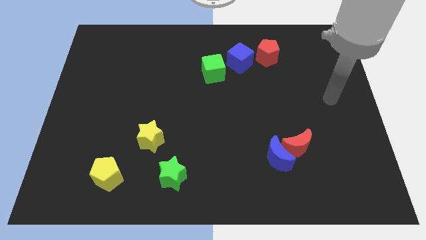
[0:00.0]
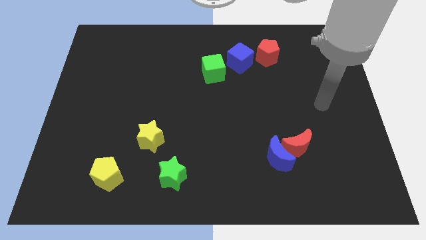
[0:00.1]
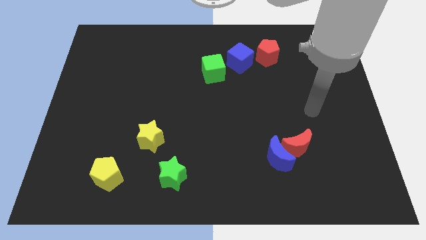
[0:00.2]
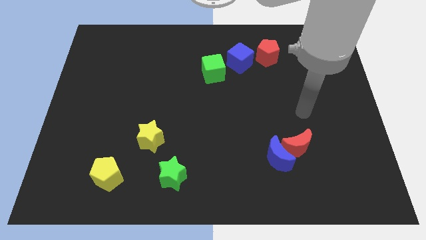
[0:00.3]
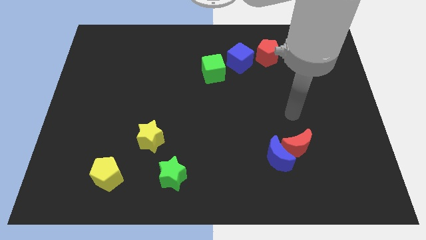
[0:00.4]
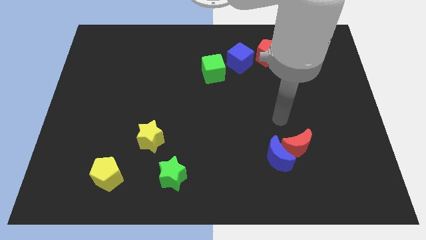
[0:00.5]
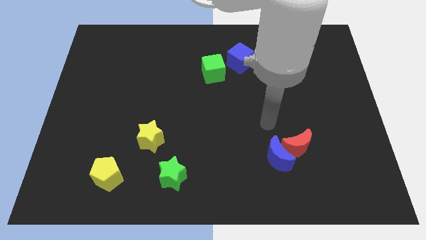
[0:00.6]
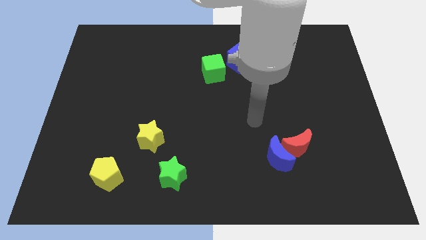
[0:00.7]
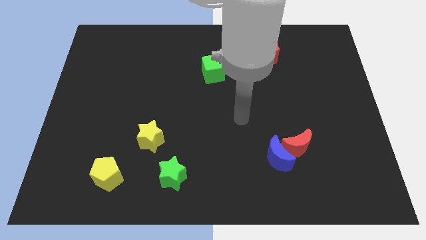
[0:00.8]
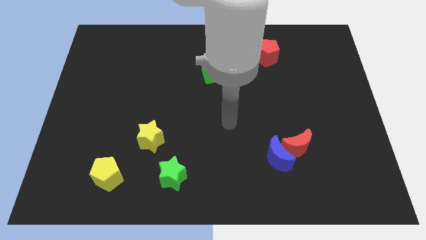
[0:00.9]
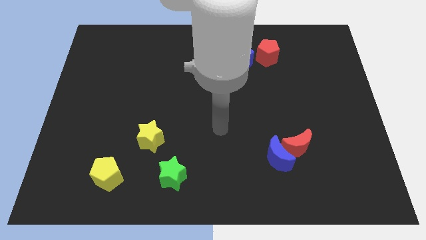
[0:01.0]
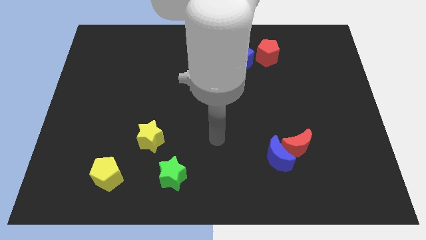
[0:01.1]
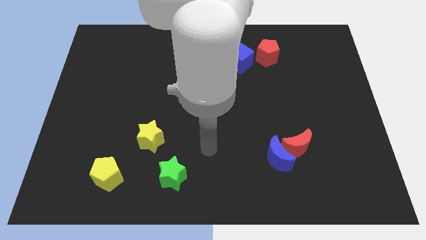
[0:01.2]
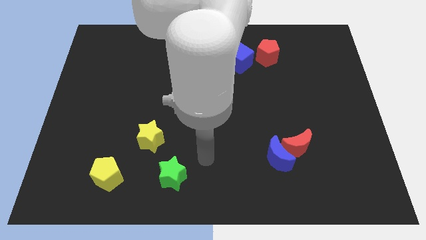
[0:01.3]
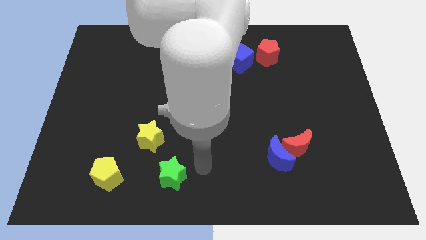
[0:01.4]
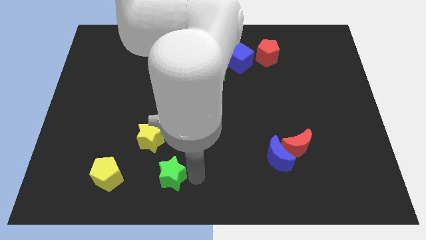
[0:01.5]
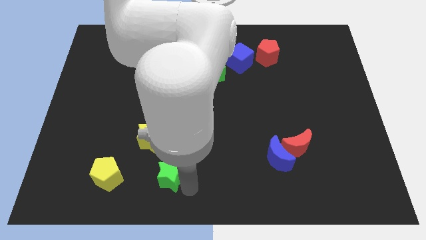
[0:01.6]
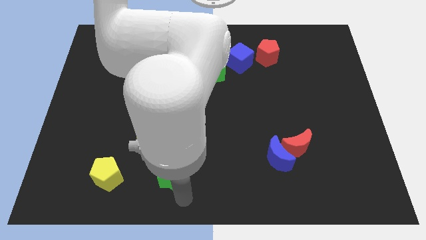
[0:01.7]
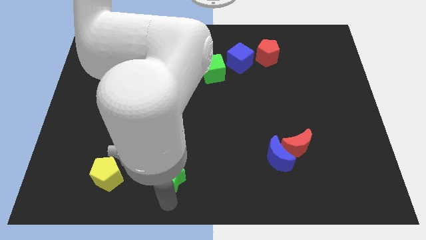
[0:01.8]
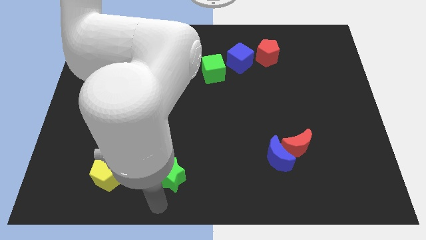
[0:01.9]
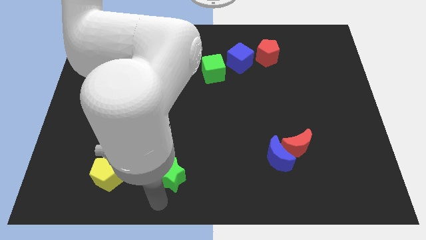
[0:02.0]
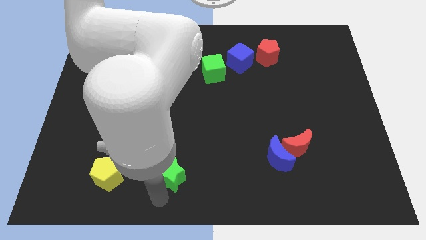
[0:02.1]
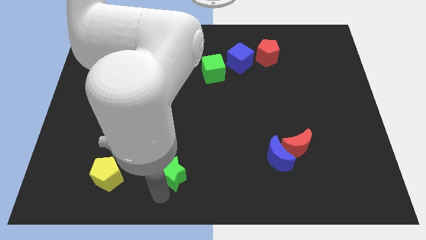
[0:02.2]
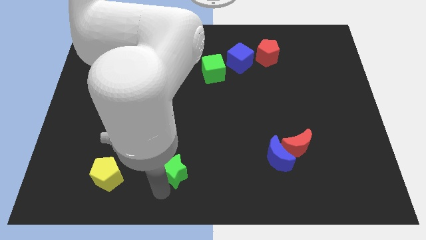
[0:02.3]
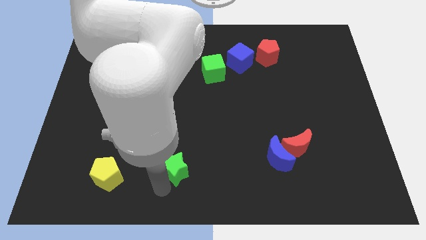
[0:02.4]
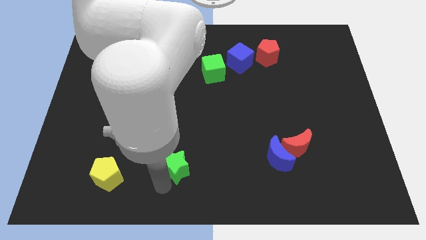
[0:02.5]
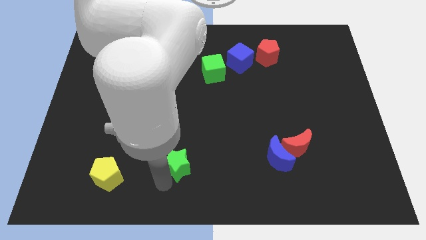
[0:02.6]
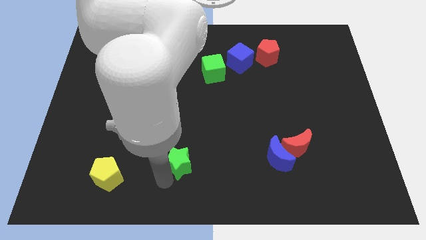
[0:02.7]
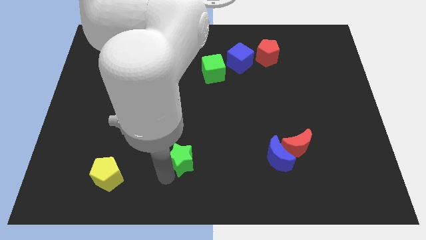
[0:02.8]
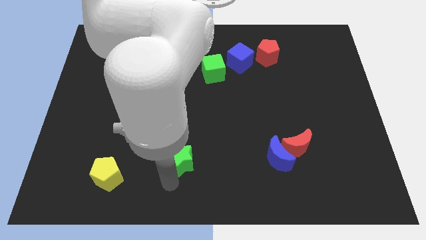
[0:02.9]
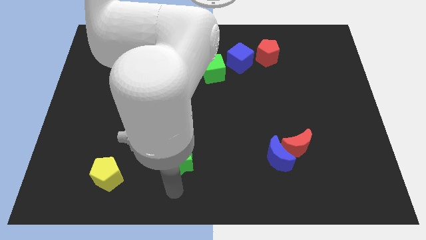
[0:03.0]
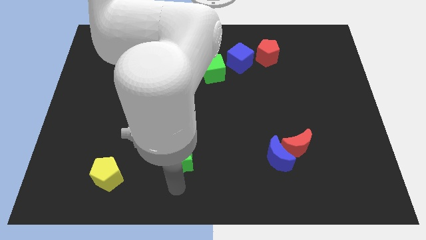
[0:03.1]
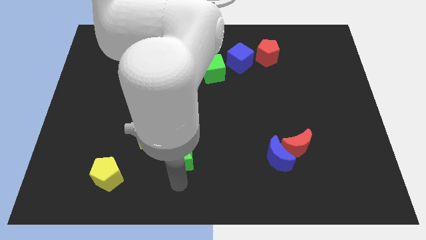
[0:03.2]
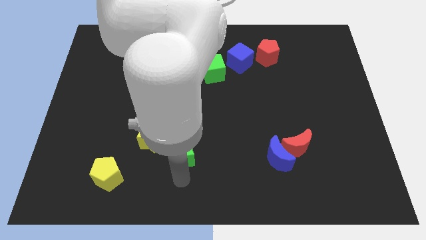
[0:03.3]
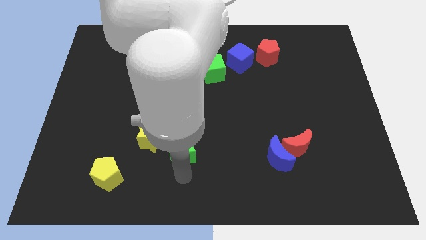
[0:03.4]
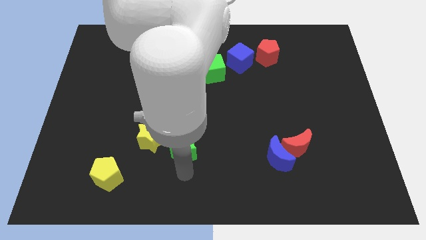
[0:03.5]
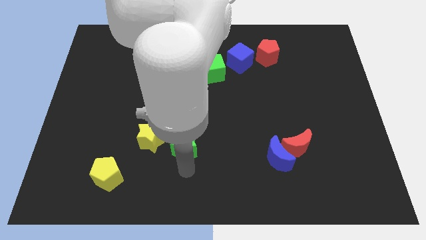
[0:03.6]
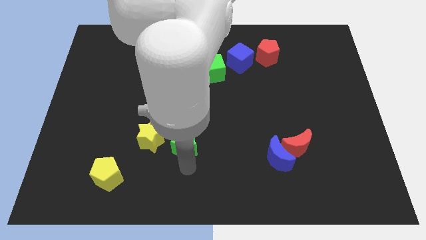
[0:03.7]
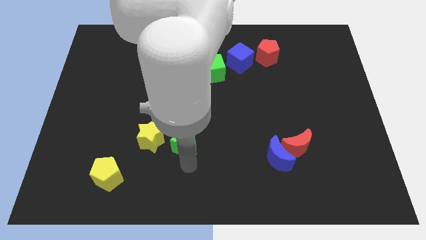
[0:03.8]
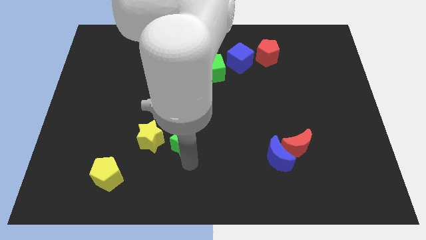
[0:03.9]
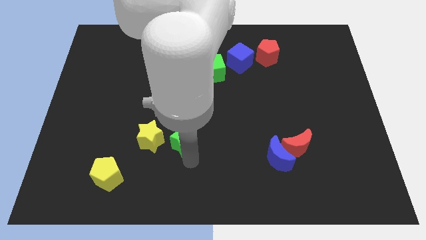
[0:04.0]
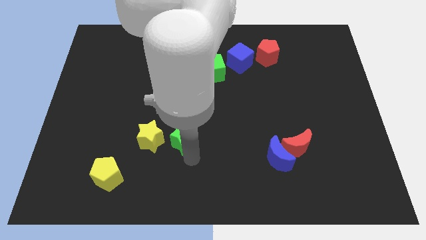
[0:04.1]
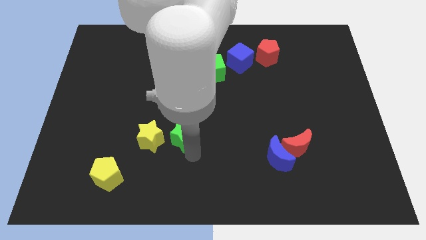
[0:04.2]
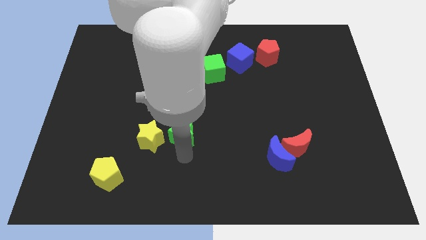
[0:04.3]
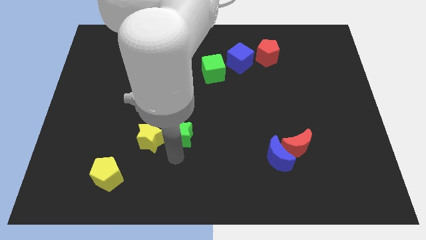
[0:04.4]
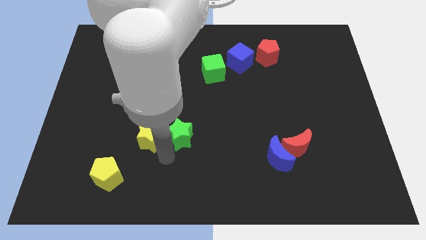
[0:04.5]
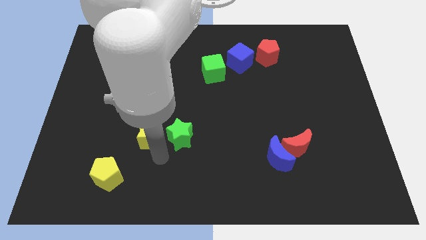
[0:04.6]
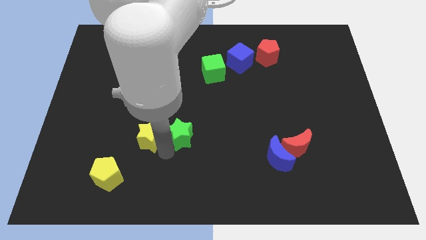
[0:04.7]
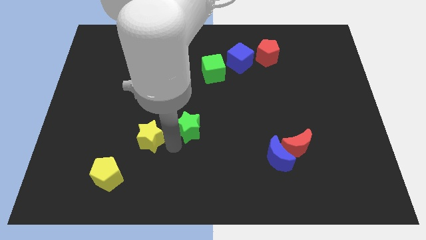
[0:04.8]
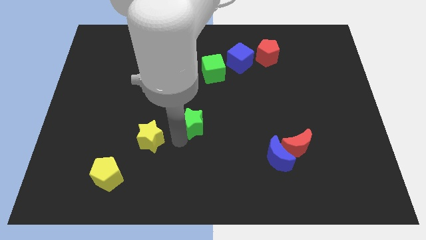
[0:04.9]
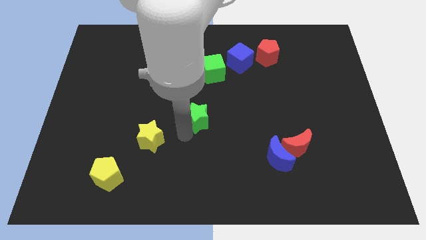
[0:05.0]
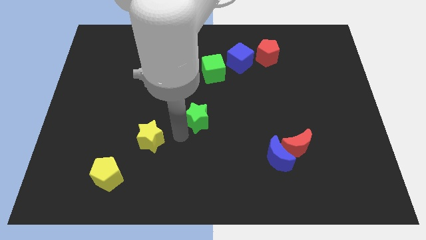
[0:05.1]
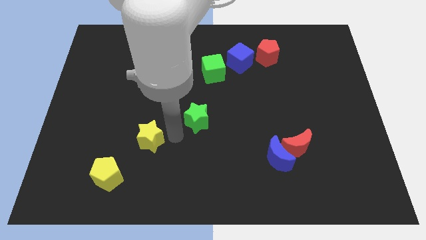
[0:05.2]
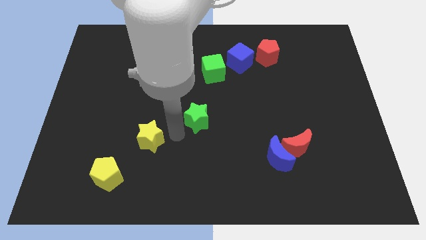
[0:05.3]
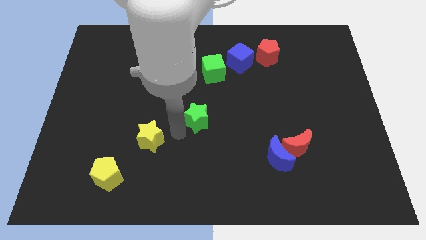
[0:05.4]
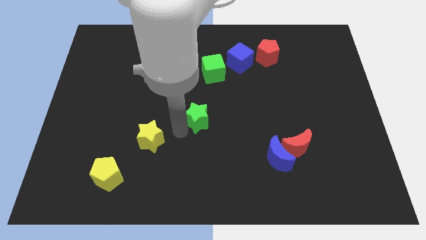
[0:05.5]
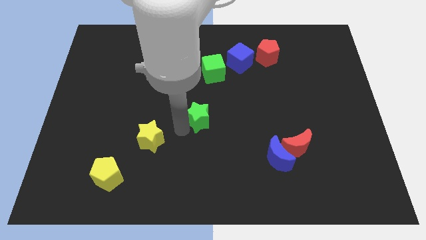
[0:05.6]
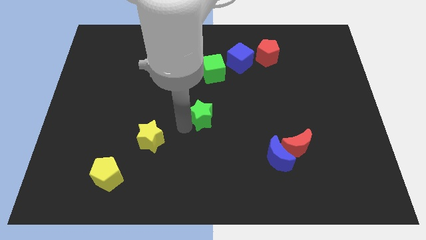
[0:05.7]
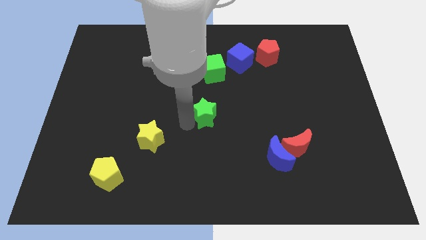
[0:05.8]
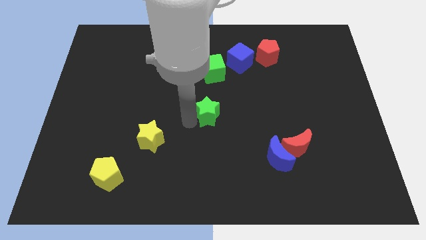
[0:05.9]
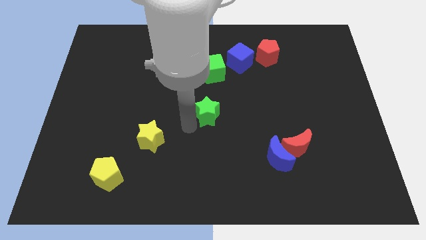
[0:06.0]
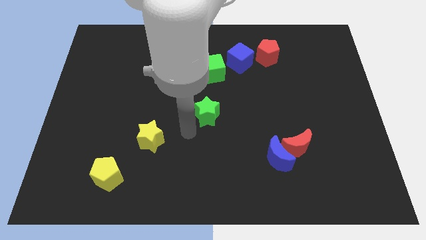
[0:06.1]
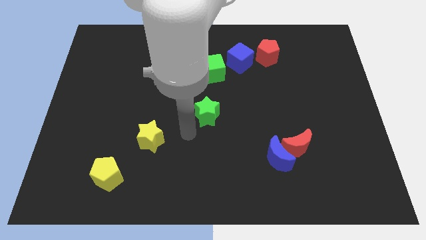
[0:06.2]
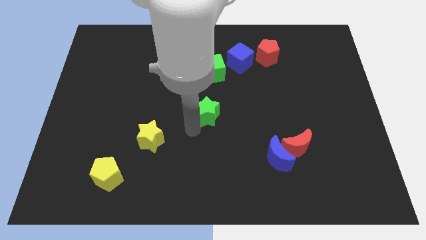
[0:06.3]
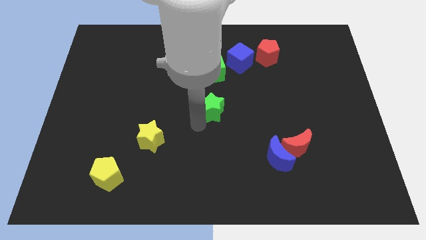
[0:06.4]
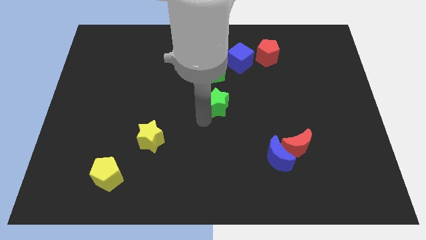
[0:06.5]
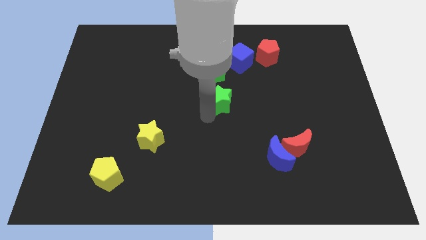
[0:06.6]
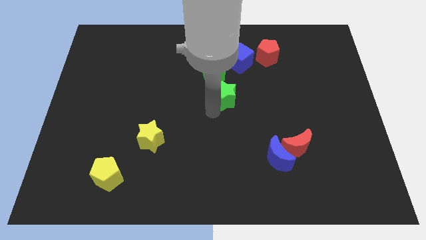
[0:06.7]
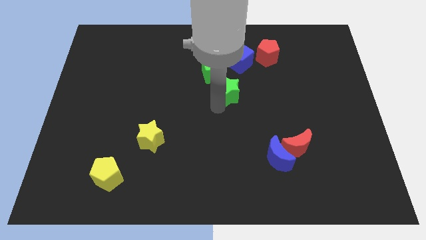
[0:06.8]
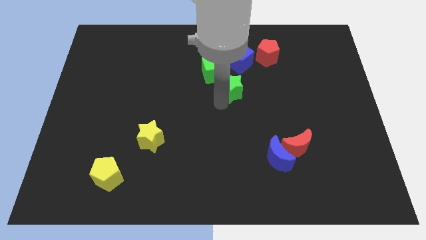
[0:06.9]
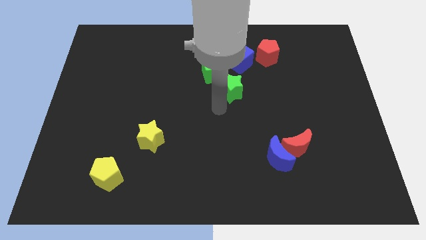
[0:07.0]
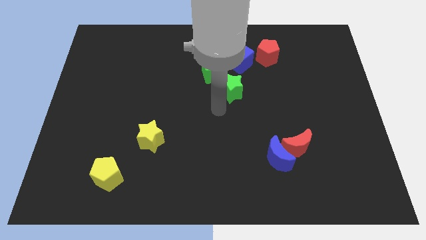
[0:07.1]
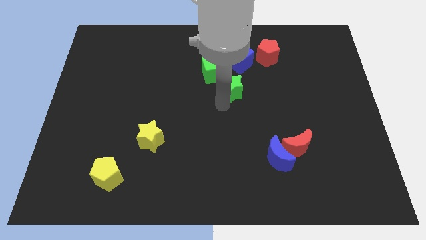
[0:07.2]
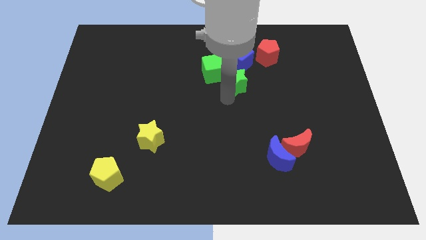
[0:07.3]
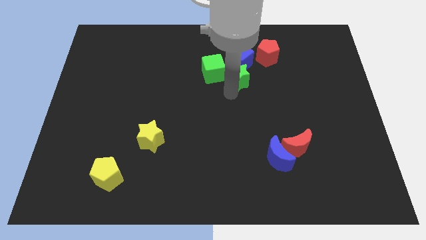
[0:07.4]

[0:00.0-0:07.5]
slide the green star to the bottom left of the red pentagon
